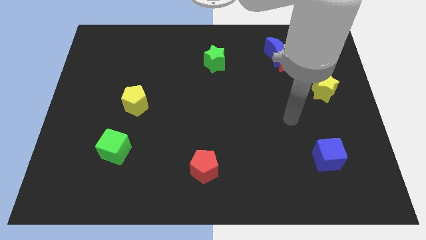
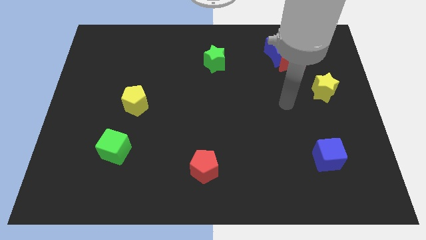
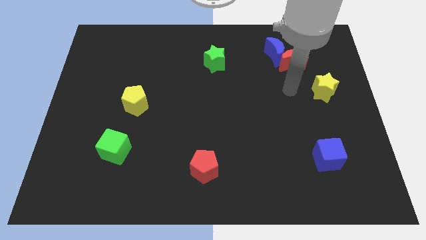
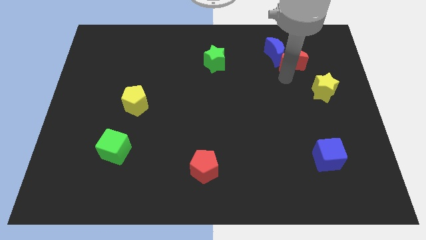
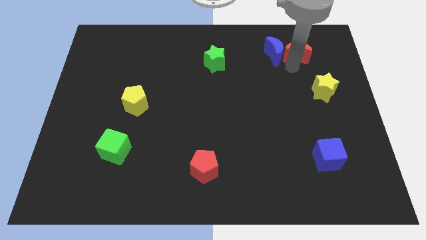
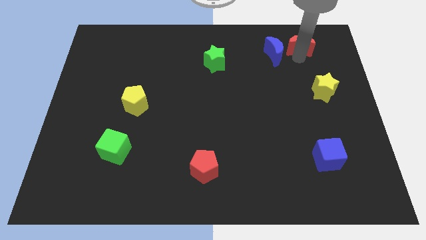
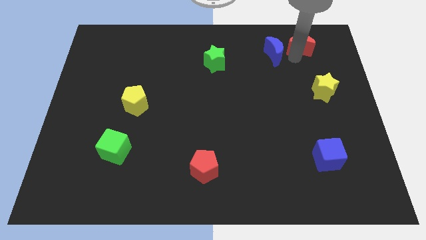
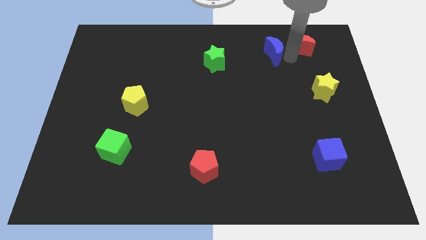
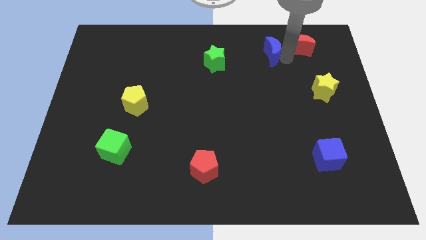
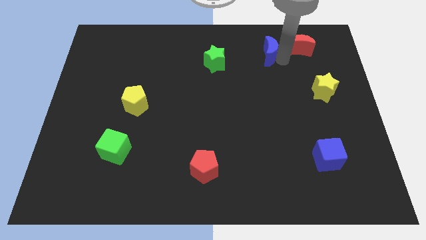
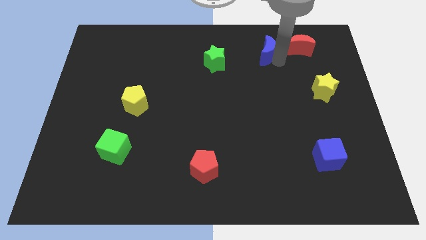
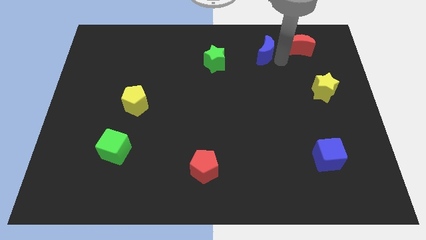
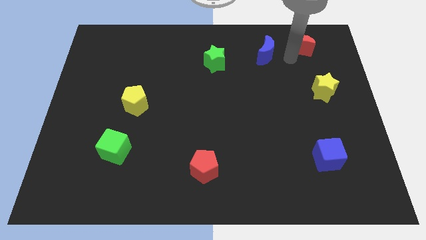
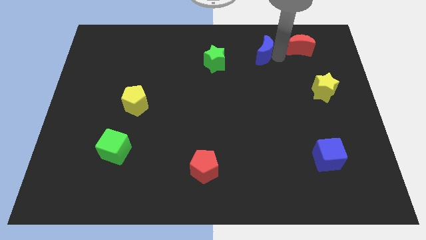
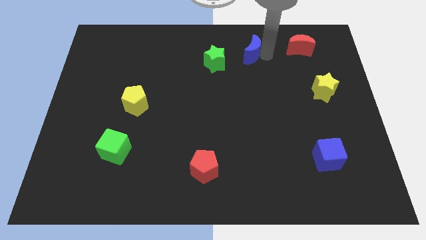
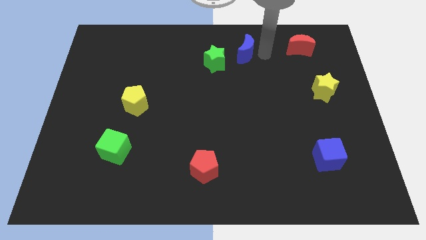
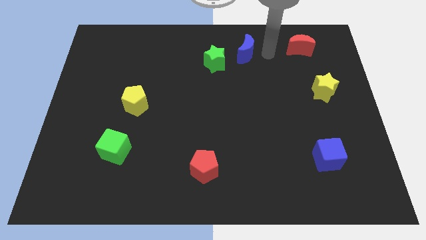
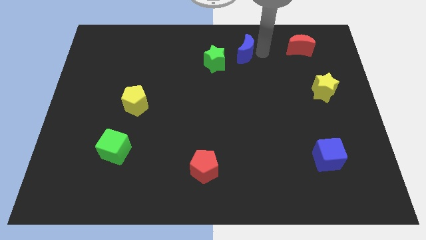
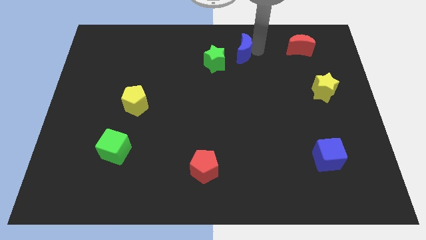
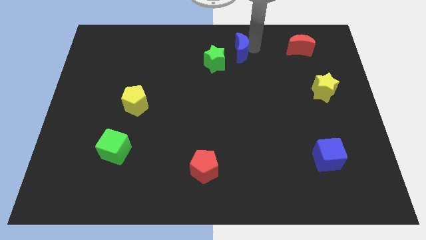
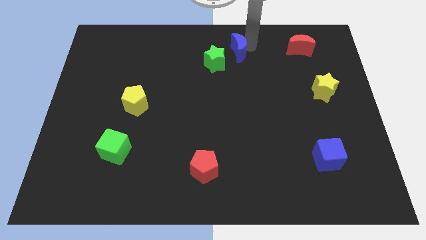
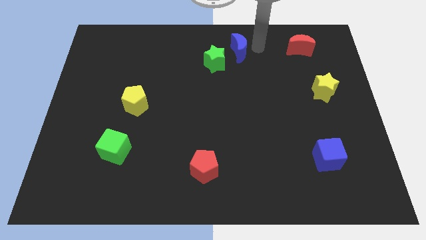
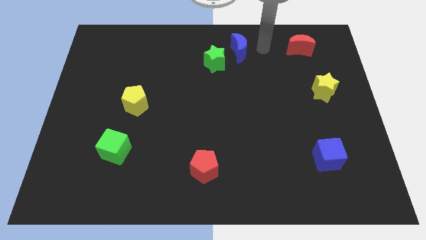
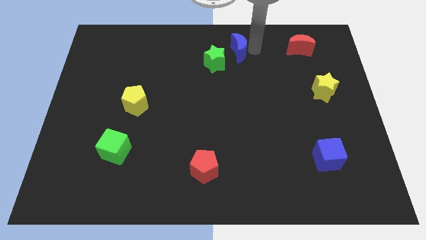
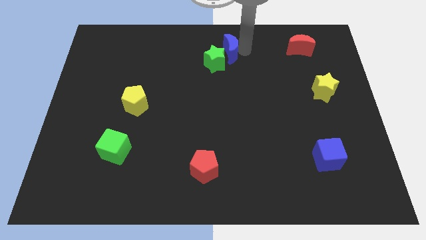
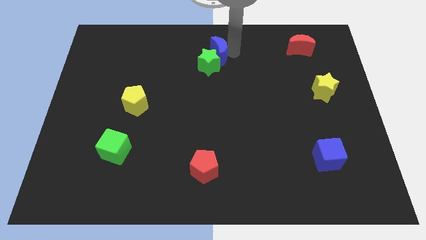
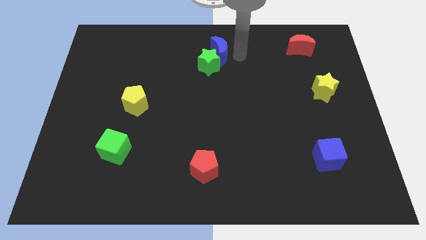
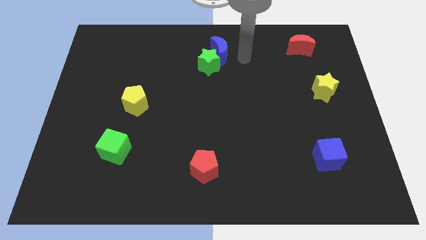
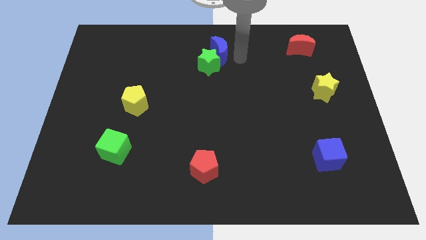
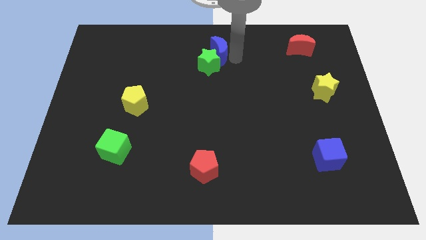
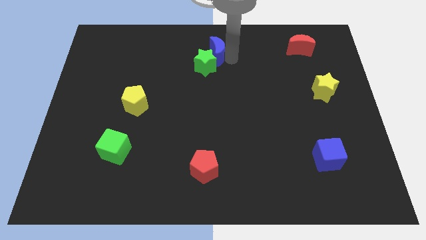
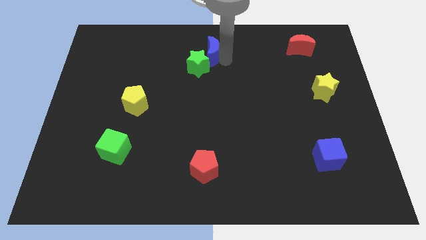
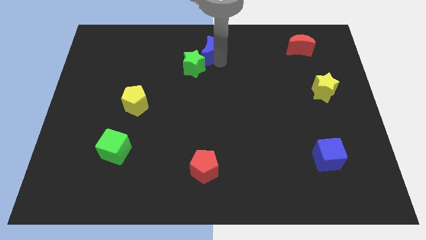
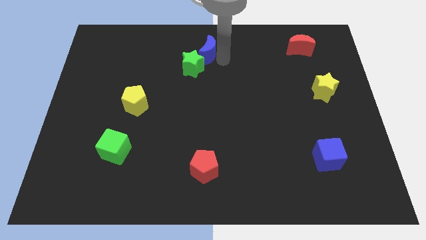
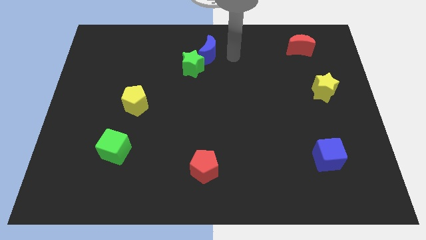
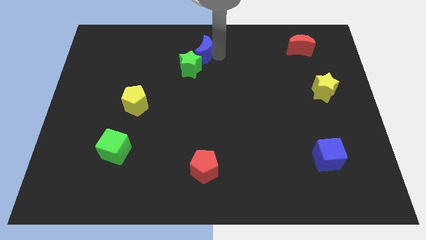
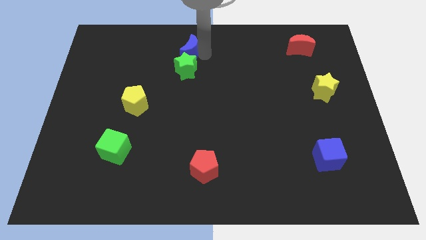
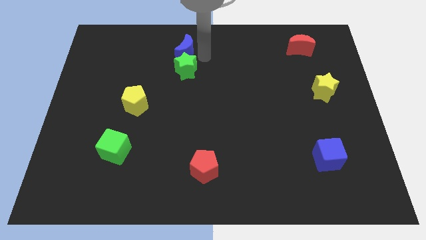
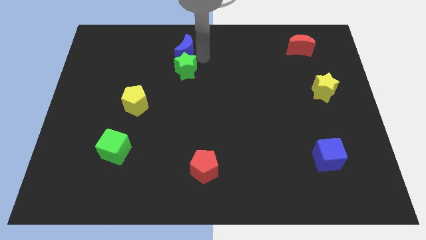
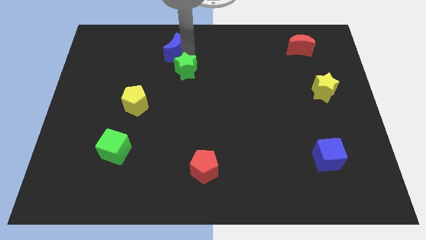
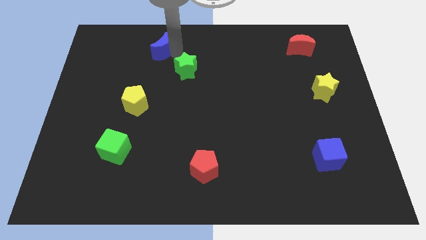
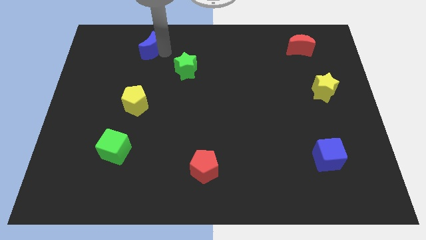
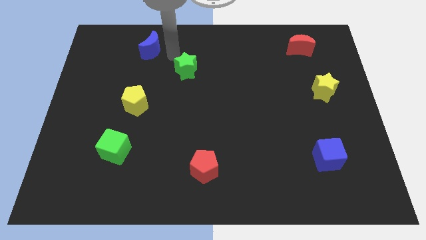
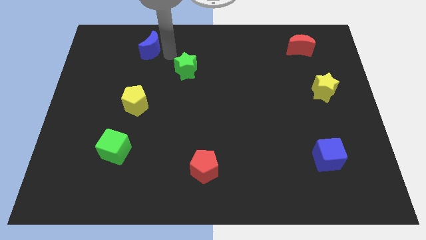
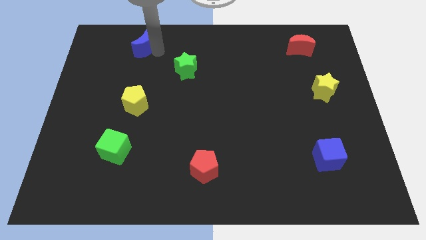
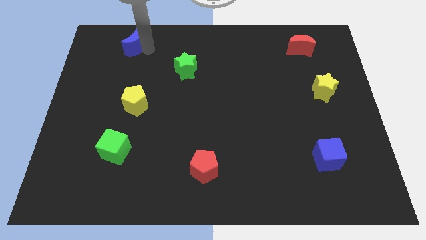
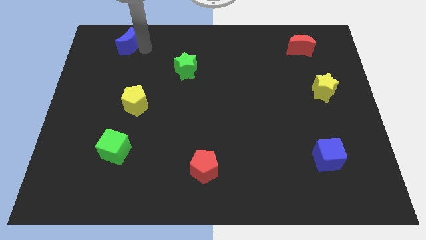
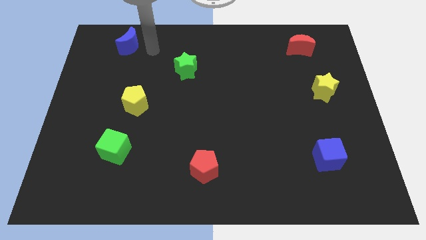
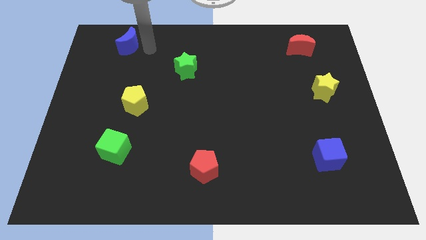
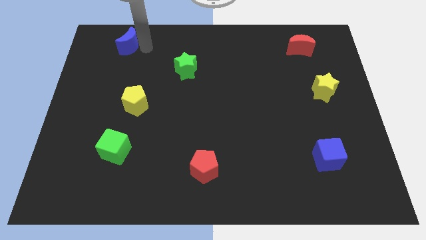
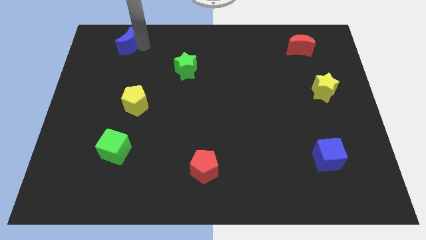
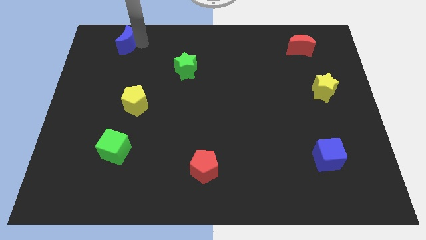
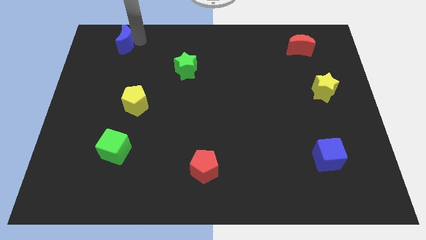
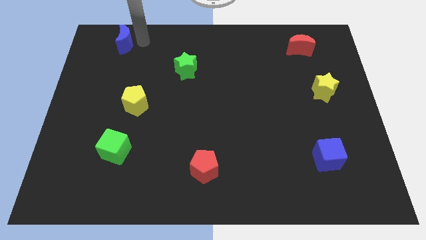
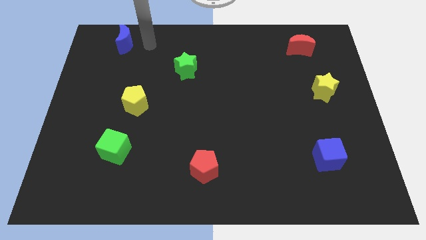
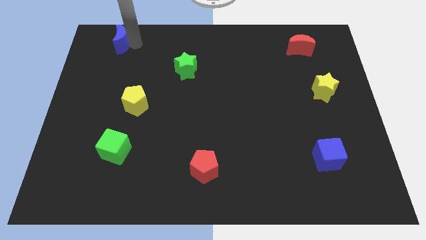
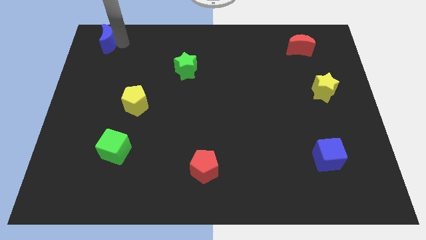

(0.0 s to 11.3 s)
push the blue moon to the upper left corner
